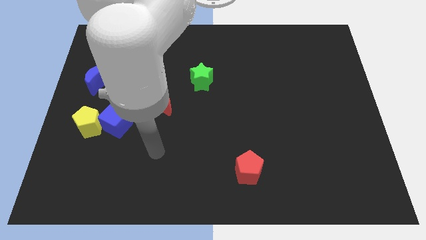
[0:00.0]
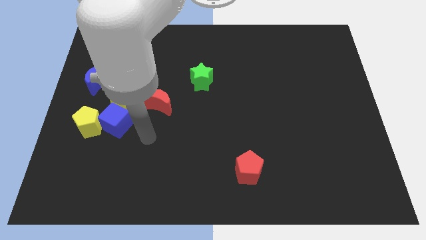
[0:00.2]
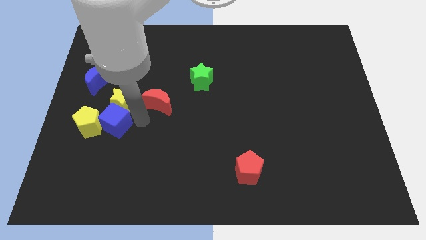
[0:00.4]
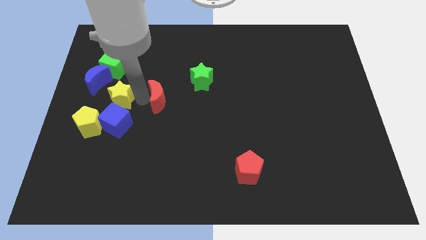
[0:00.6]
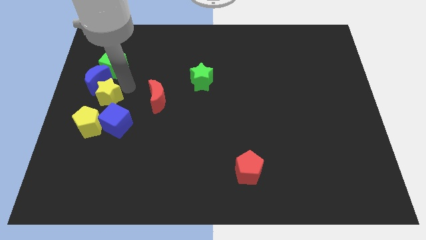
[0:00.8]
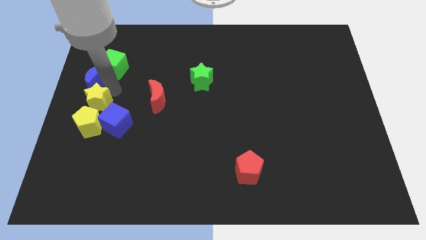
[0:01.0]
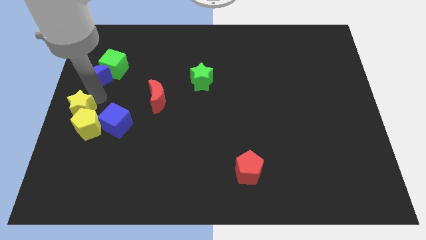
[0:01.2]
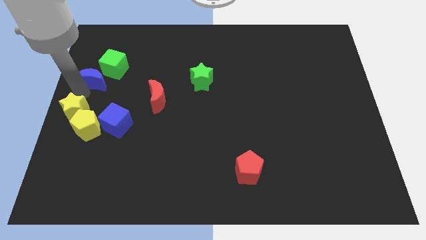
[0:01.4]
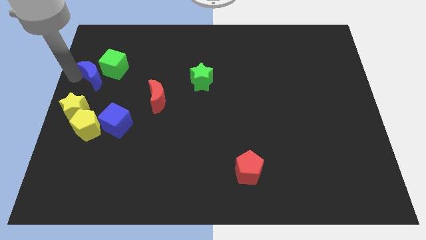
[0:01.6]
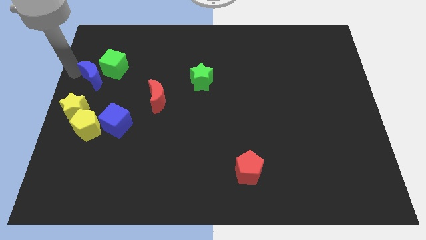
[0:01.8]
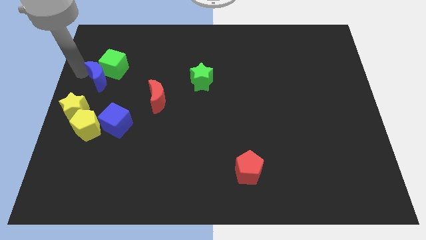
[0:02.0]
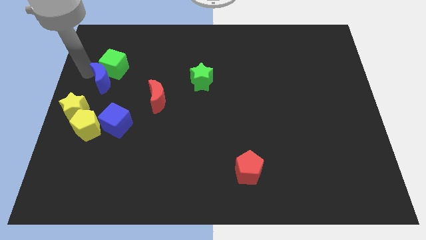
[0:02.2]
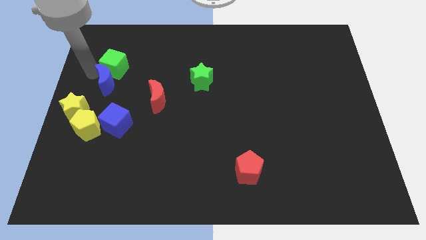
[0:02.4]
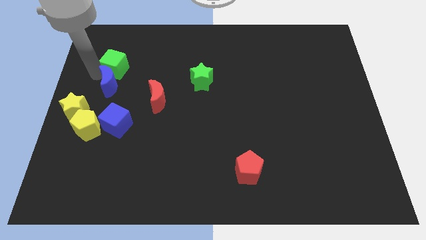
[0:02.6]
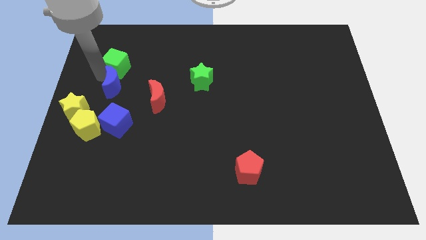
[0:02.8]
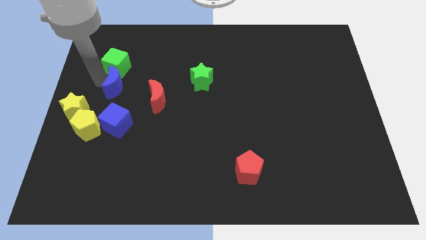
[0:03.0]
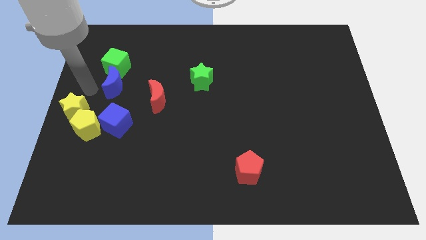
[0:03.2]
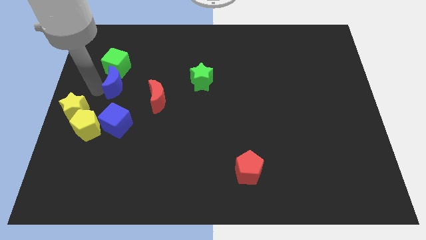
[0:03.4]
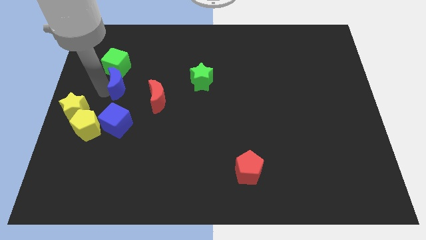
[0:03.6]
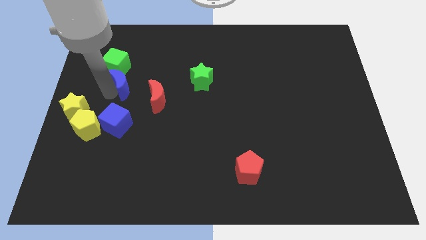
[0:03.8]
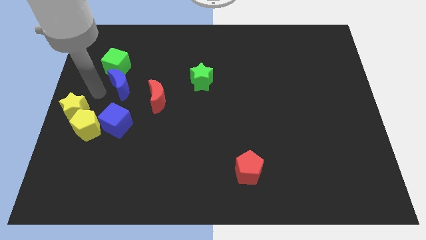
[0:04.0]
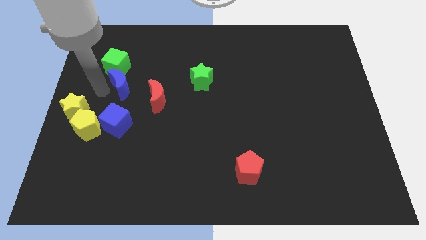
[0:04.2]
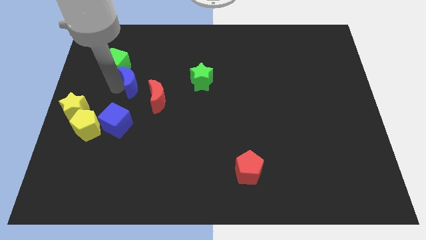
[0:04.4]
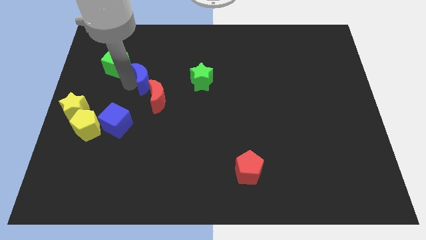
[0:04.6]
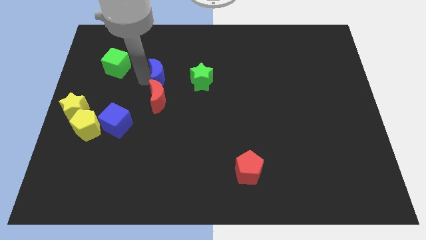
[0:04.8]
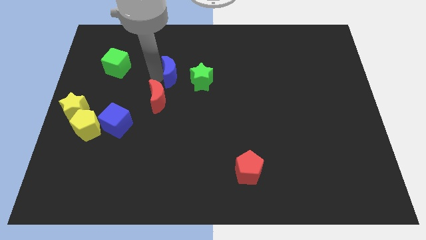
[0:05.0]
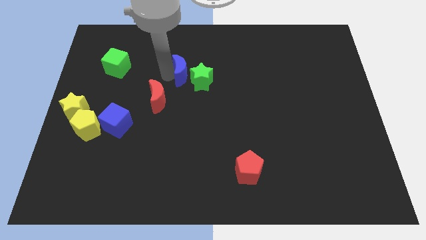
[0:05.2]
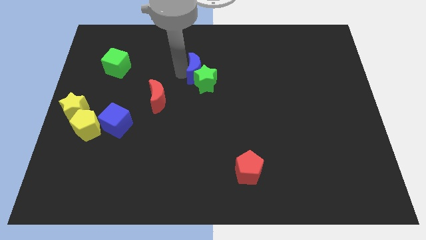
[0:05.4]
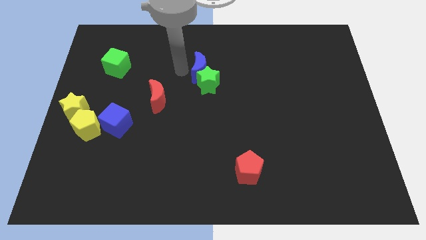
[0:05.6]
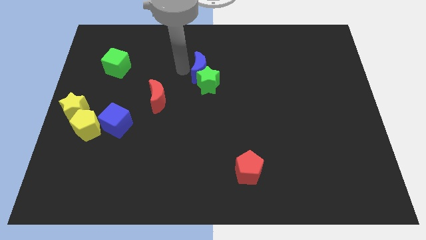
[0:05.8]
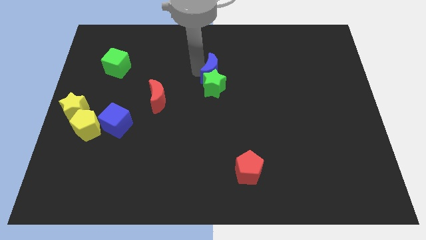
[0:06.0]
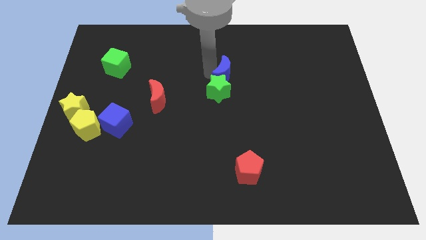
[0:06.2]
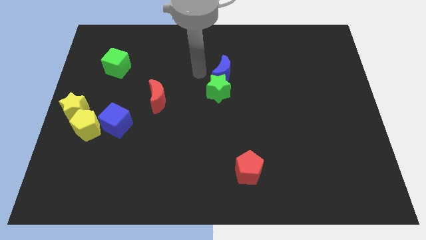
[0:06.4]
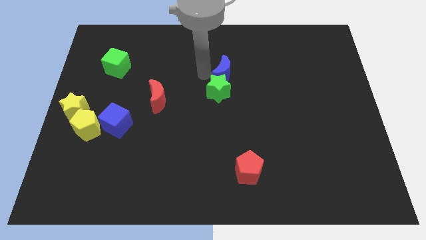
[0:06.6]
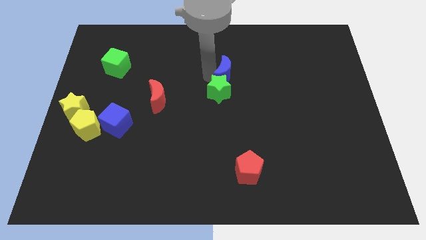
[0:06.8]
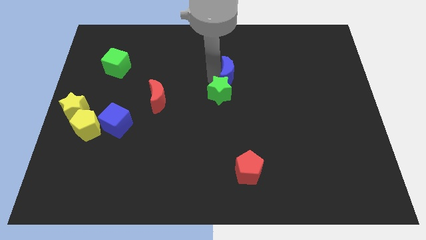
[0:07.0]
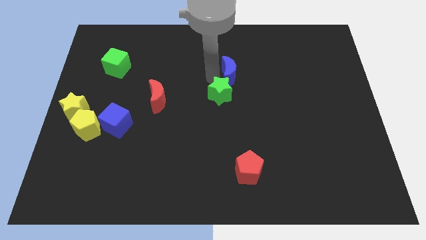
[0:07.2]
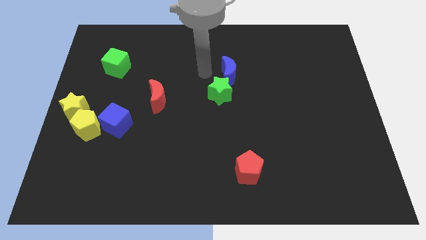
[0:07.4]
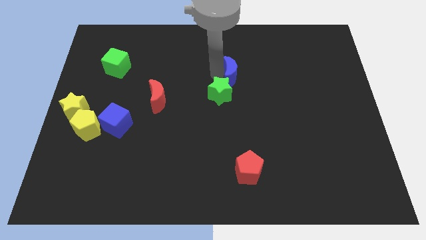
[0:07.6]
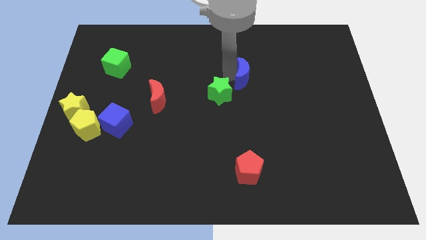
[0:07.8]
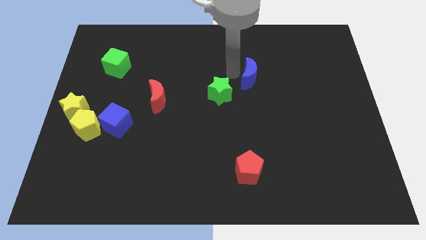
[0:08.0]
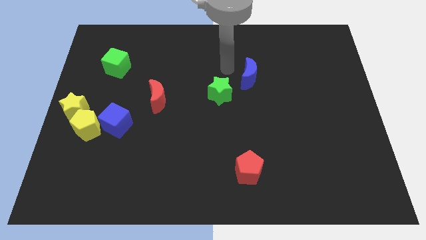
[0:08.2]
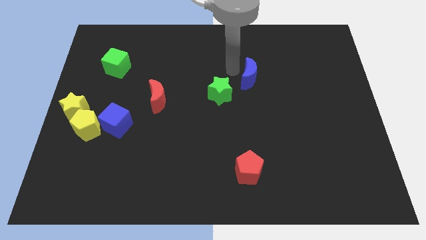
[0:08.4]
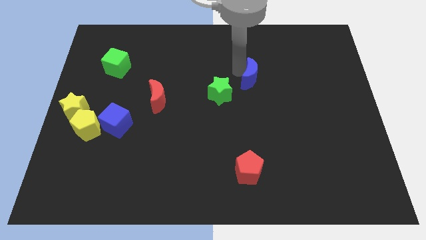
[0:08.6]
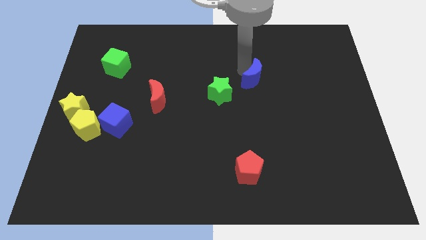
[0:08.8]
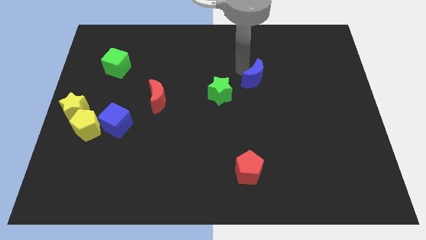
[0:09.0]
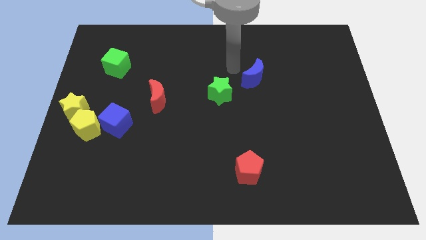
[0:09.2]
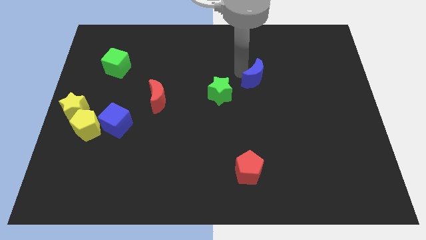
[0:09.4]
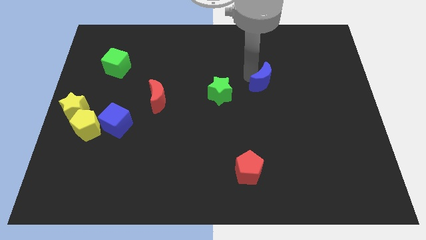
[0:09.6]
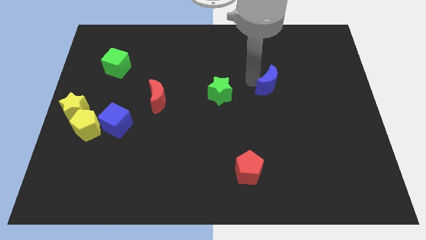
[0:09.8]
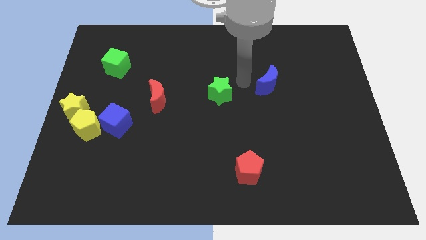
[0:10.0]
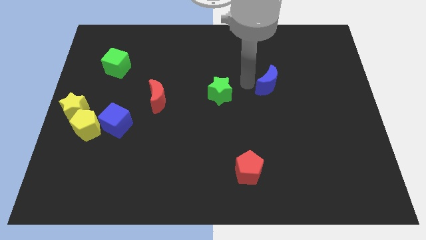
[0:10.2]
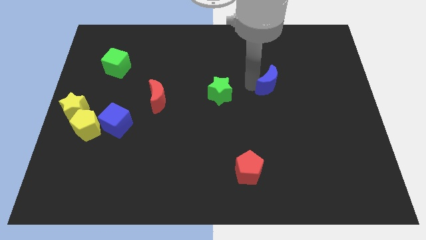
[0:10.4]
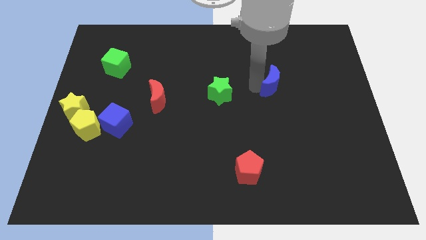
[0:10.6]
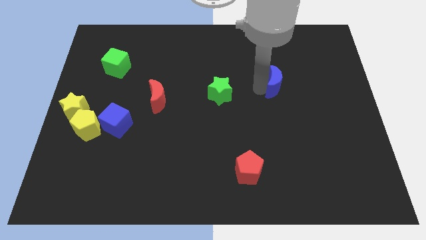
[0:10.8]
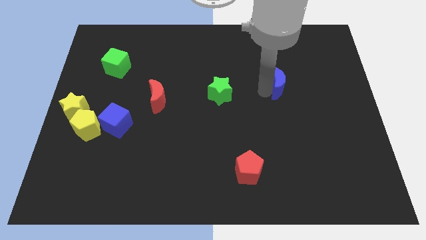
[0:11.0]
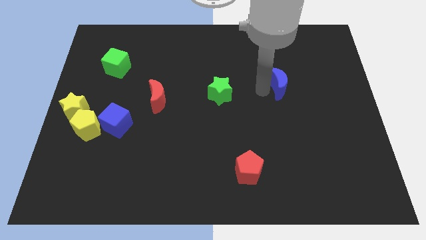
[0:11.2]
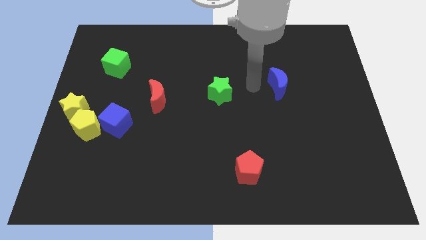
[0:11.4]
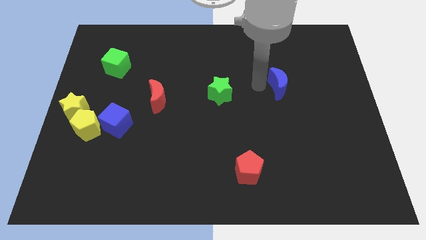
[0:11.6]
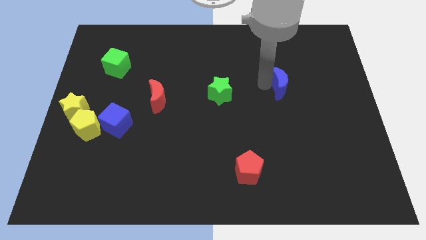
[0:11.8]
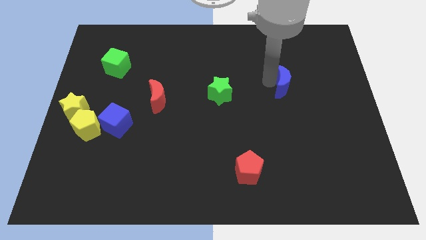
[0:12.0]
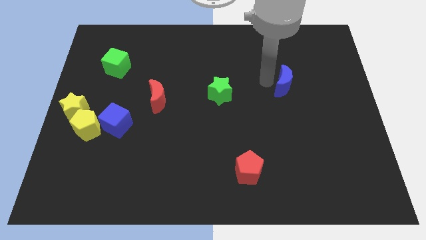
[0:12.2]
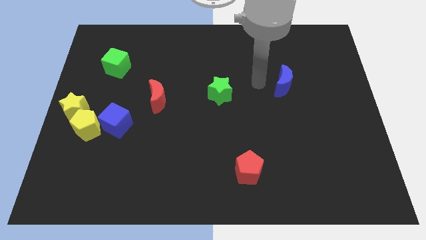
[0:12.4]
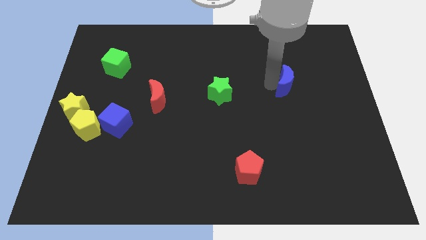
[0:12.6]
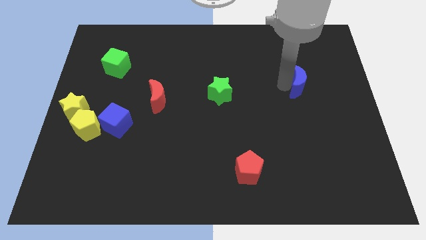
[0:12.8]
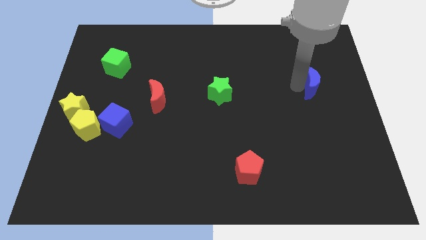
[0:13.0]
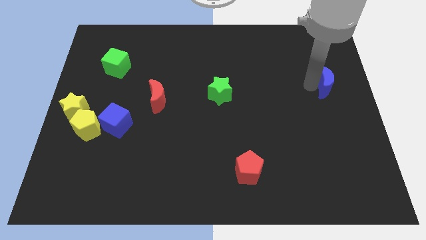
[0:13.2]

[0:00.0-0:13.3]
push the blue moon to the right side of the board
